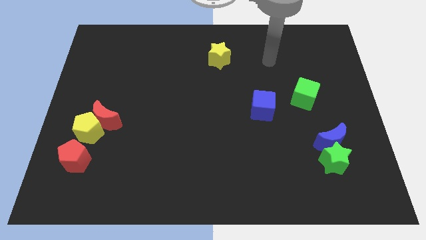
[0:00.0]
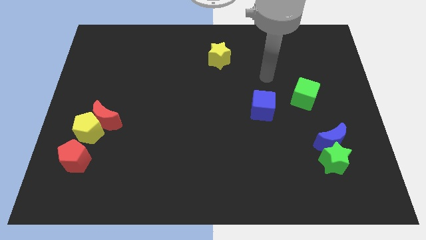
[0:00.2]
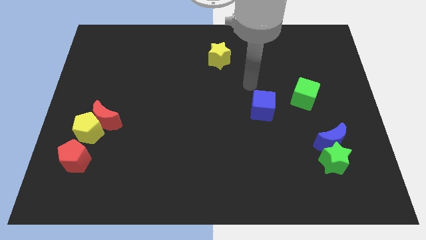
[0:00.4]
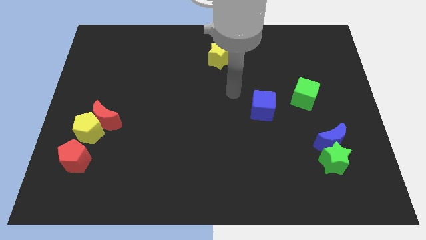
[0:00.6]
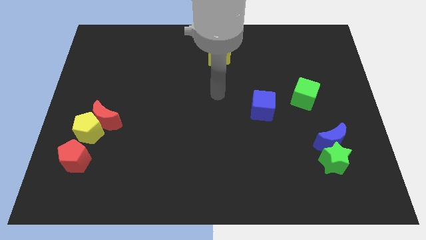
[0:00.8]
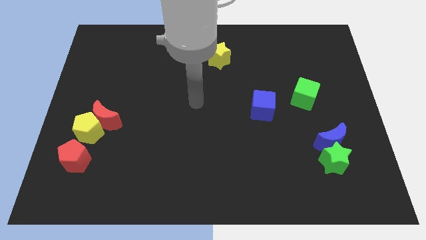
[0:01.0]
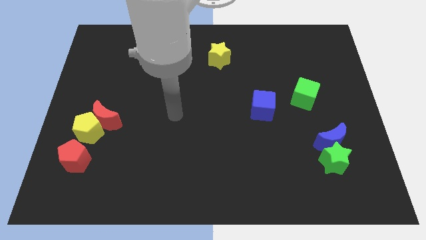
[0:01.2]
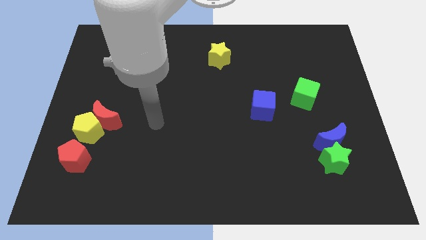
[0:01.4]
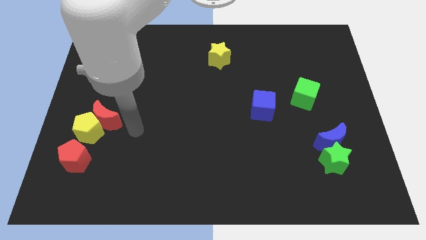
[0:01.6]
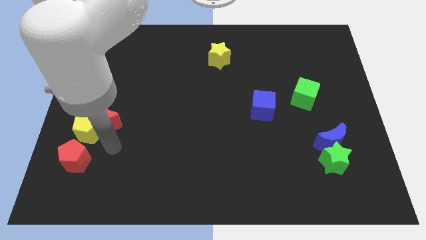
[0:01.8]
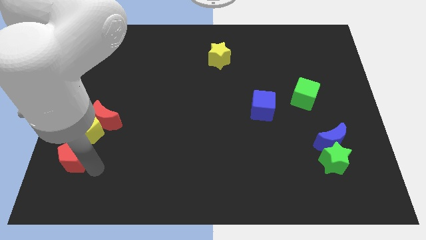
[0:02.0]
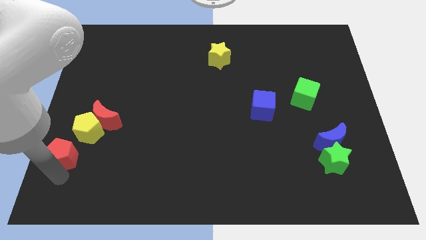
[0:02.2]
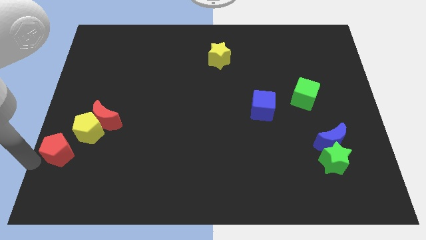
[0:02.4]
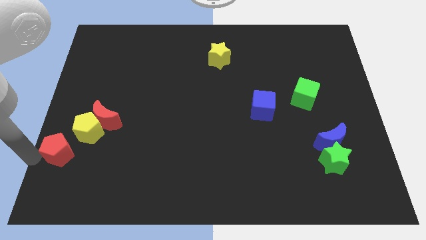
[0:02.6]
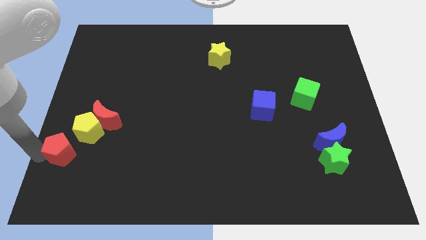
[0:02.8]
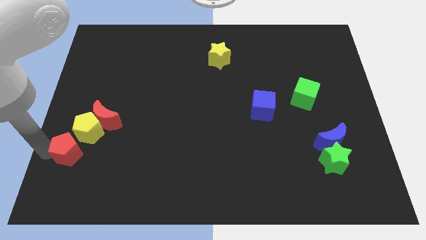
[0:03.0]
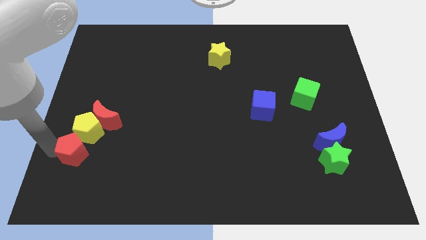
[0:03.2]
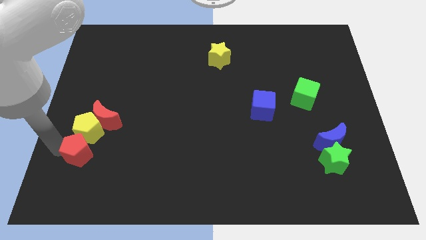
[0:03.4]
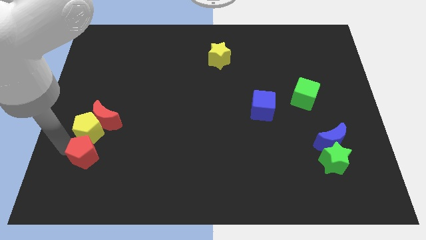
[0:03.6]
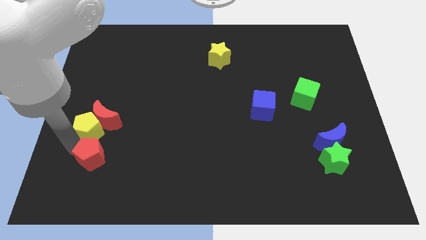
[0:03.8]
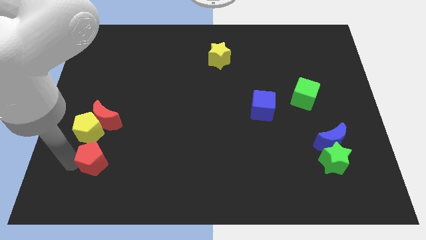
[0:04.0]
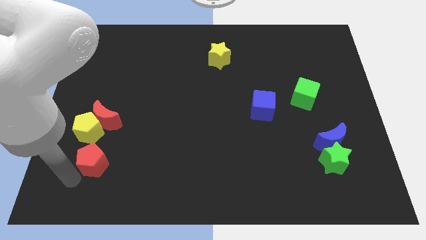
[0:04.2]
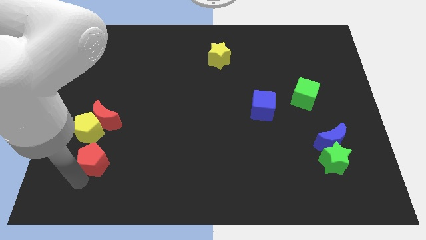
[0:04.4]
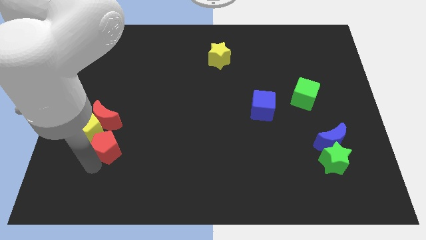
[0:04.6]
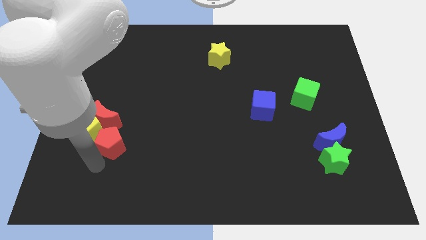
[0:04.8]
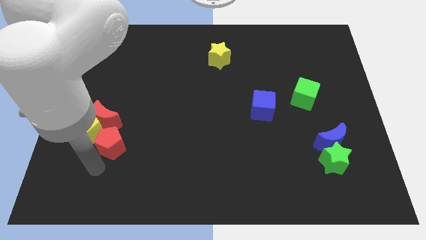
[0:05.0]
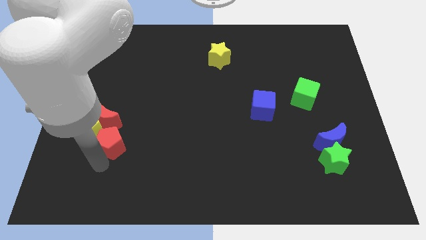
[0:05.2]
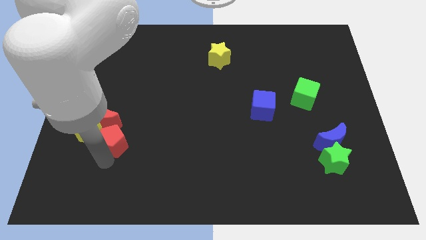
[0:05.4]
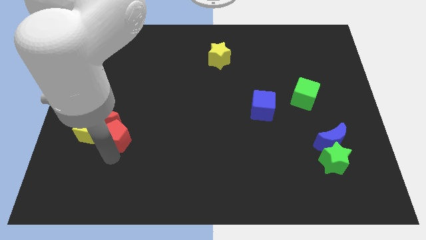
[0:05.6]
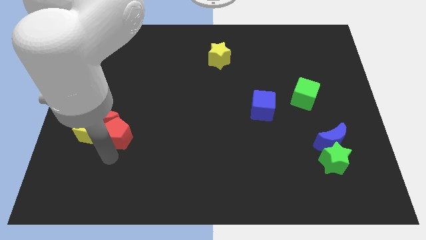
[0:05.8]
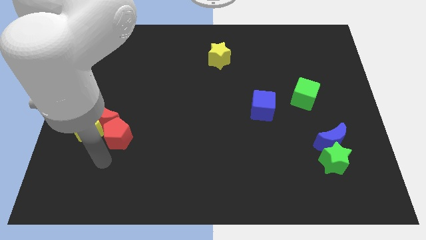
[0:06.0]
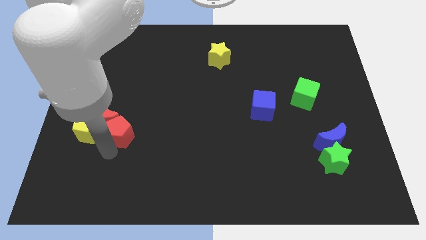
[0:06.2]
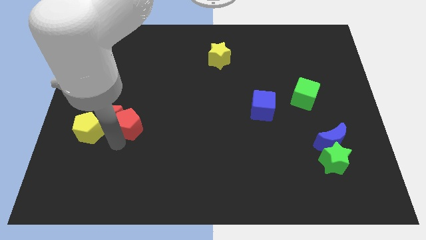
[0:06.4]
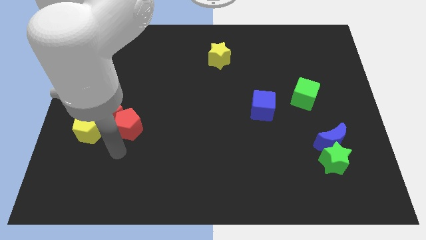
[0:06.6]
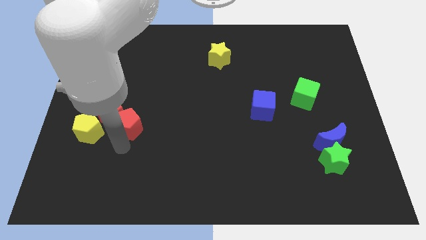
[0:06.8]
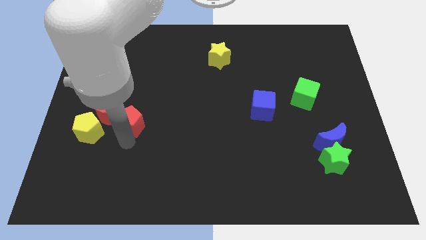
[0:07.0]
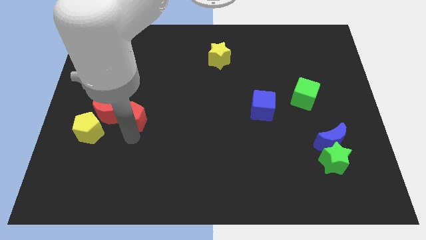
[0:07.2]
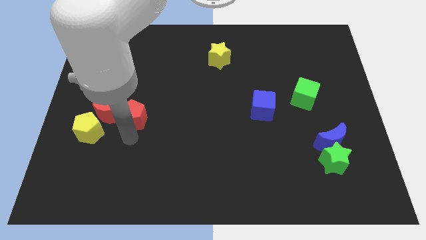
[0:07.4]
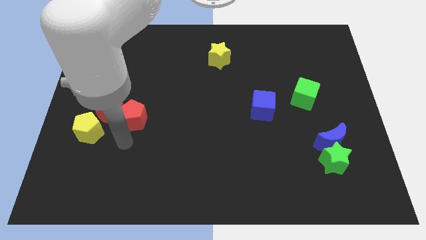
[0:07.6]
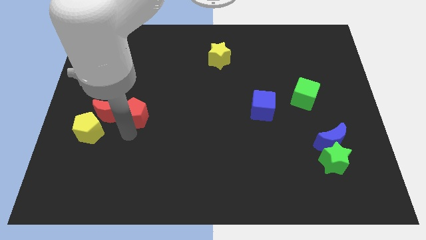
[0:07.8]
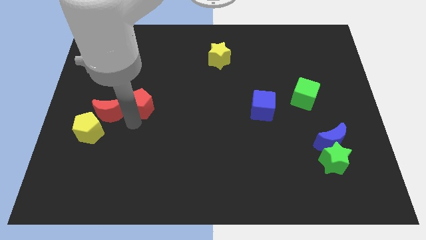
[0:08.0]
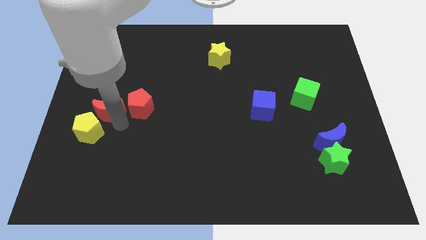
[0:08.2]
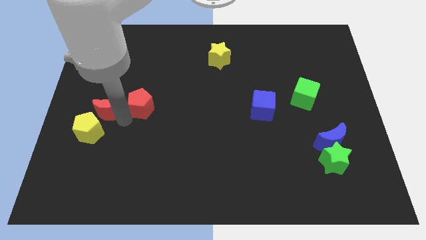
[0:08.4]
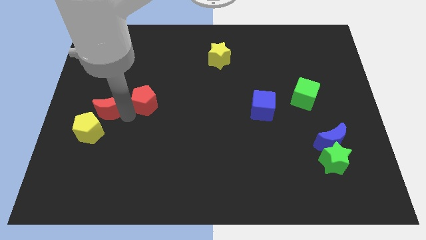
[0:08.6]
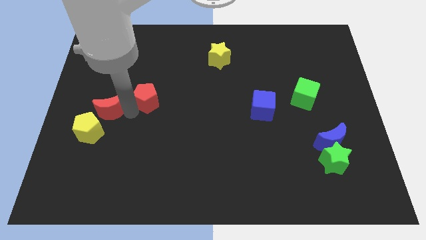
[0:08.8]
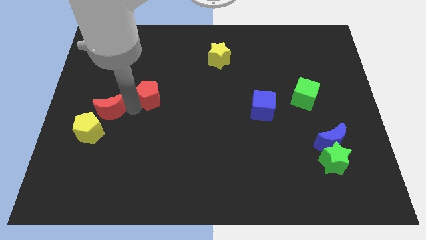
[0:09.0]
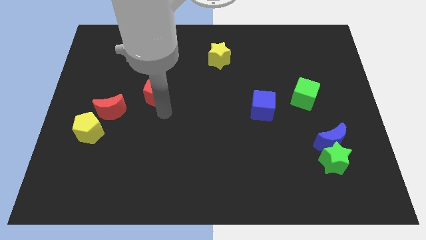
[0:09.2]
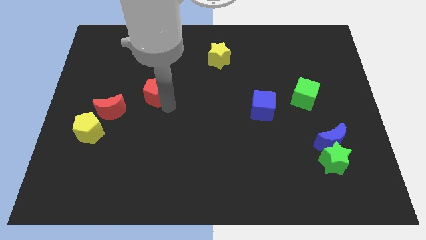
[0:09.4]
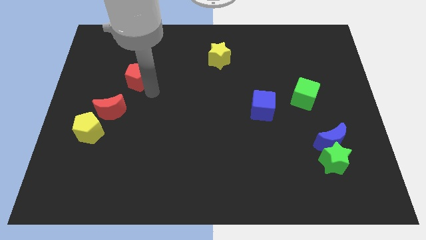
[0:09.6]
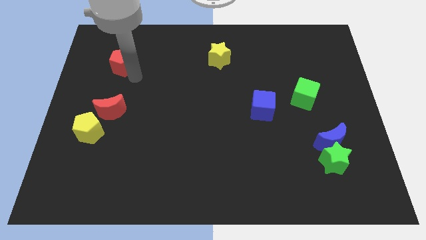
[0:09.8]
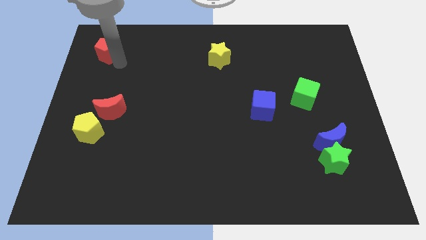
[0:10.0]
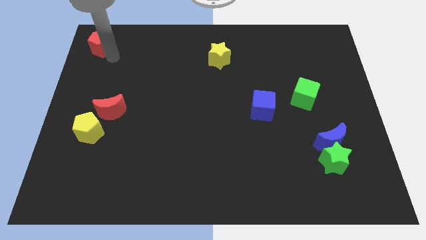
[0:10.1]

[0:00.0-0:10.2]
slide the red pentagon to the upper left corner

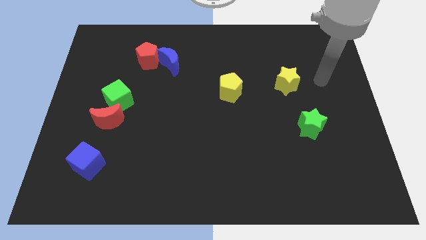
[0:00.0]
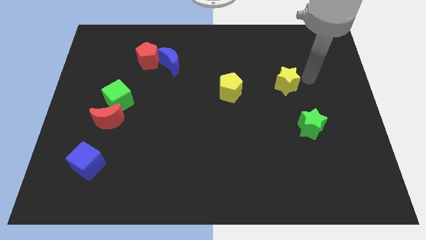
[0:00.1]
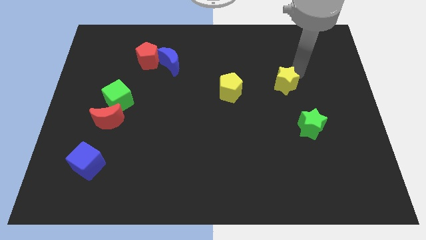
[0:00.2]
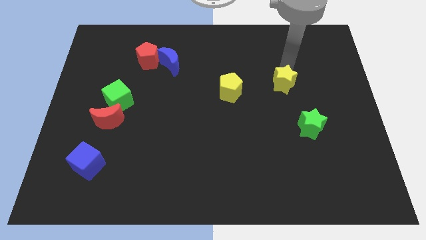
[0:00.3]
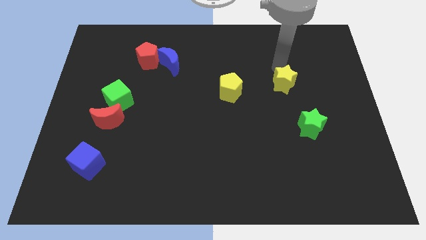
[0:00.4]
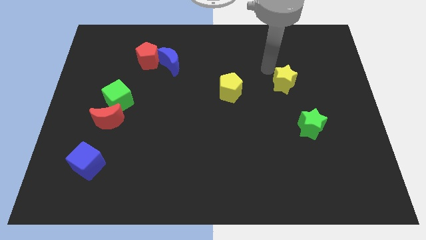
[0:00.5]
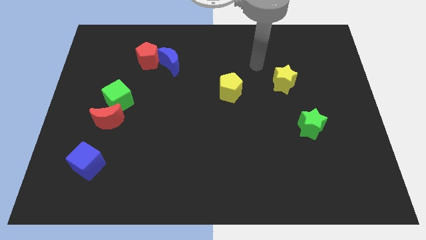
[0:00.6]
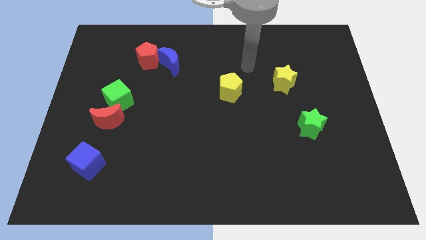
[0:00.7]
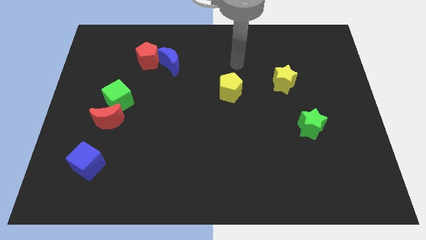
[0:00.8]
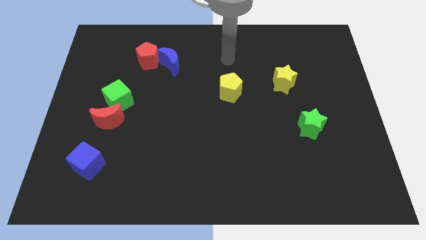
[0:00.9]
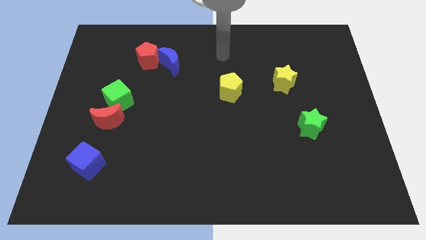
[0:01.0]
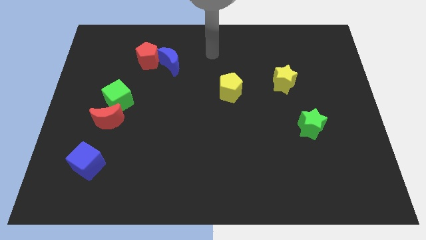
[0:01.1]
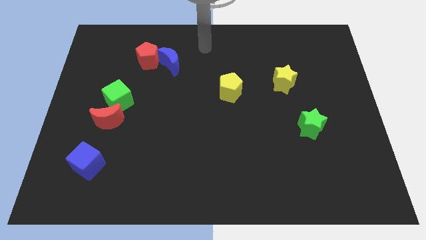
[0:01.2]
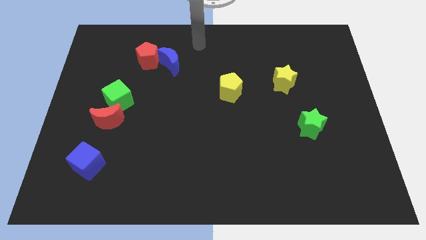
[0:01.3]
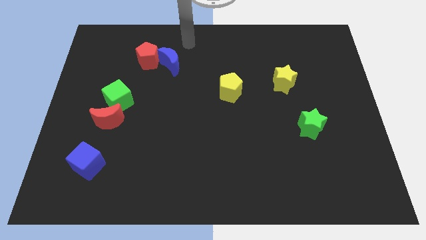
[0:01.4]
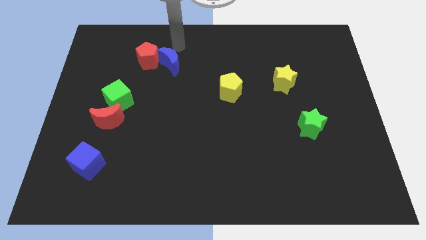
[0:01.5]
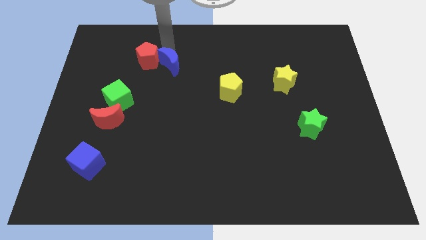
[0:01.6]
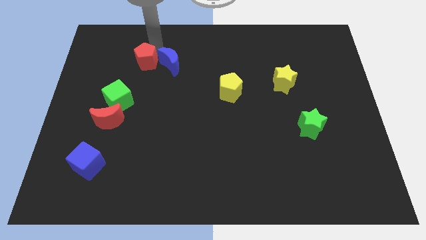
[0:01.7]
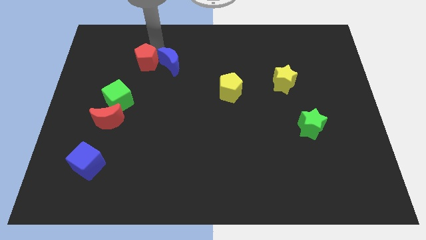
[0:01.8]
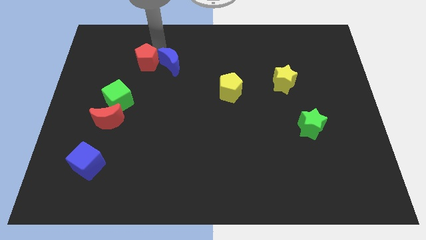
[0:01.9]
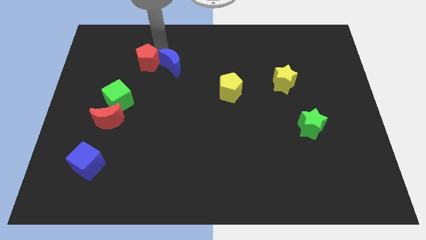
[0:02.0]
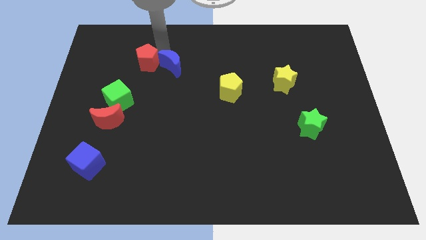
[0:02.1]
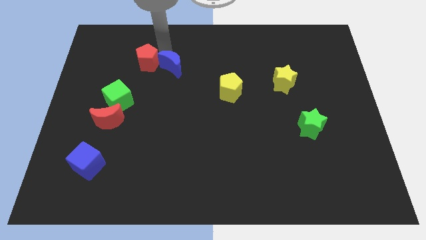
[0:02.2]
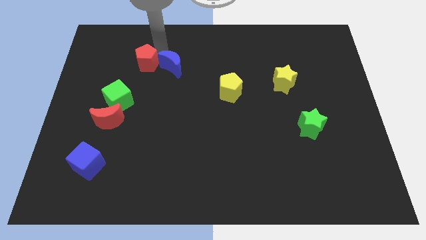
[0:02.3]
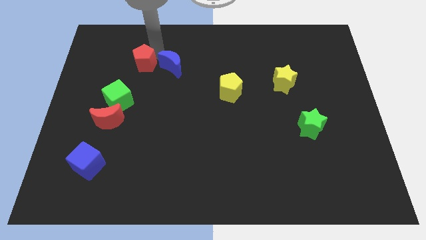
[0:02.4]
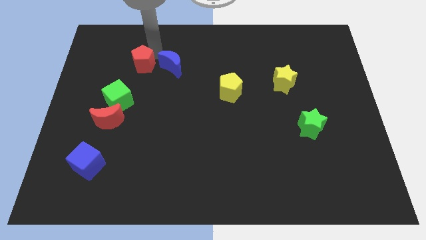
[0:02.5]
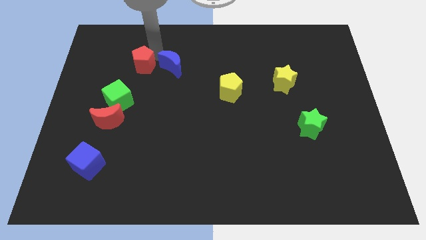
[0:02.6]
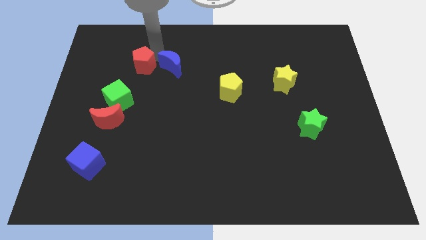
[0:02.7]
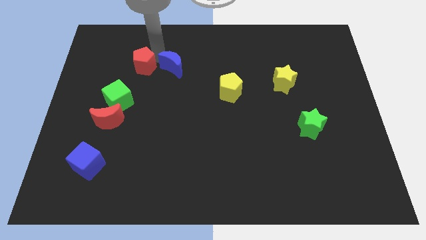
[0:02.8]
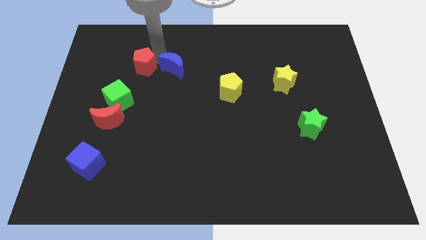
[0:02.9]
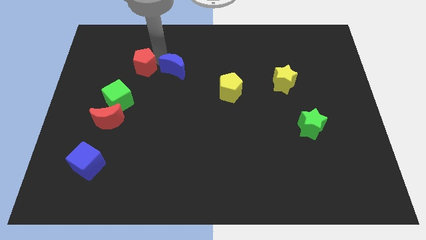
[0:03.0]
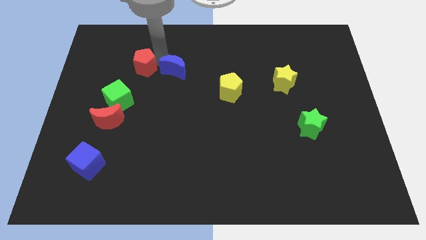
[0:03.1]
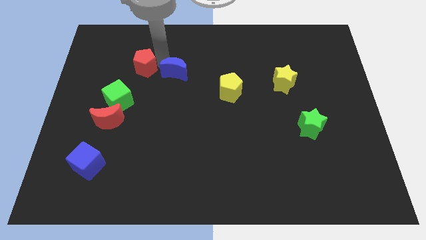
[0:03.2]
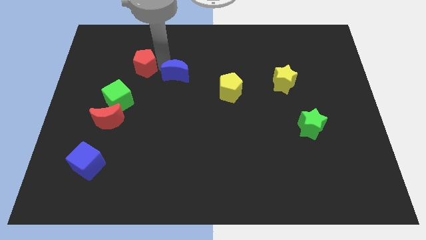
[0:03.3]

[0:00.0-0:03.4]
slide the blue moon to the middle of the board
